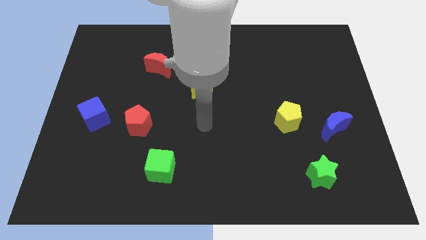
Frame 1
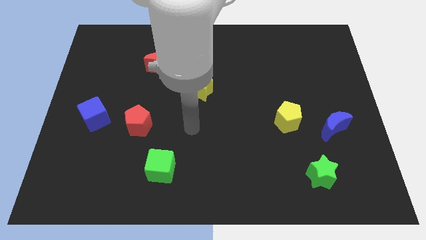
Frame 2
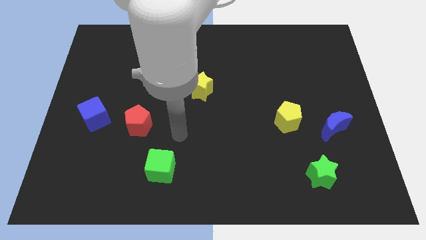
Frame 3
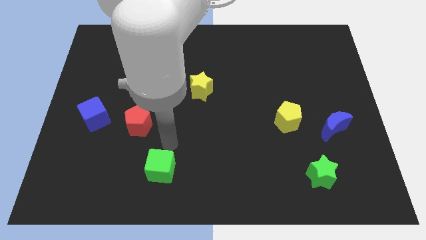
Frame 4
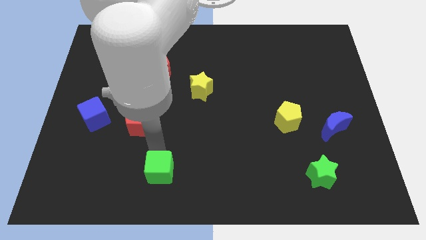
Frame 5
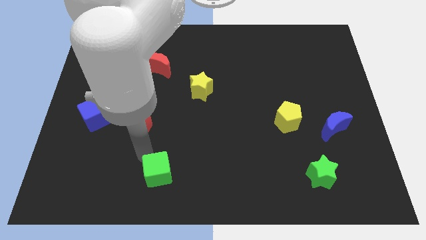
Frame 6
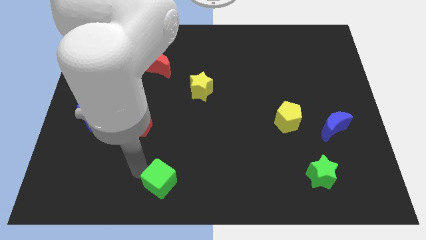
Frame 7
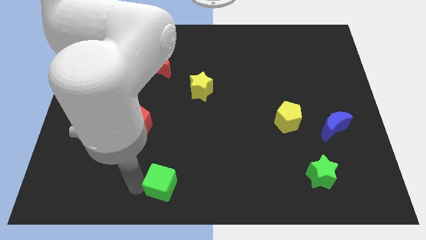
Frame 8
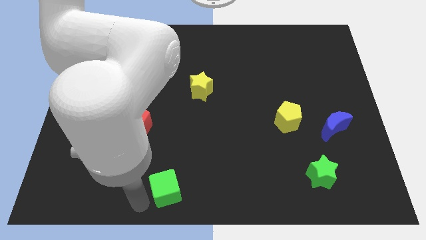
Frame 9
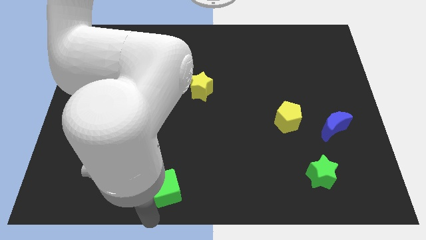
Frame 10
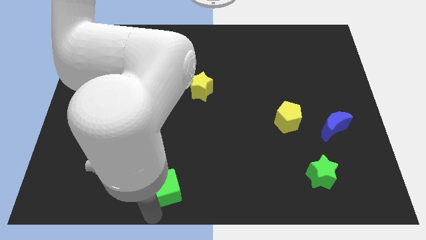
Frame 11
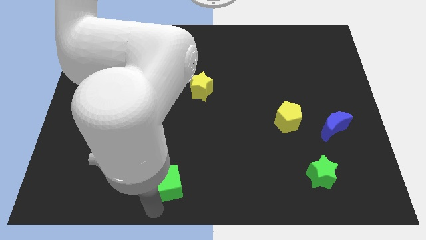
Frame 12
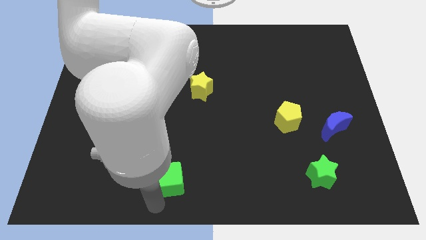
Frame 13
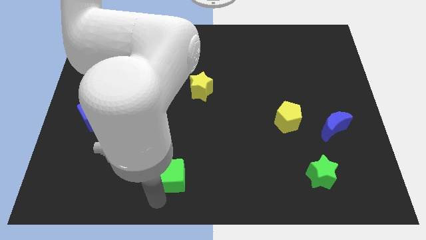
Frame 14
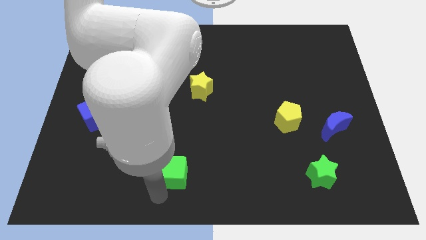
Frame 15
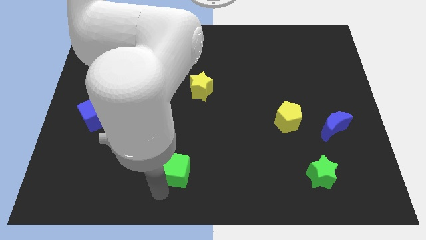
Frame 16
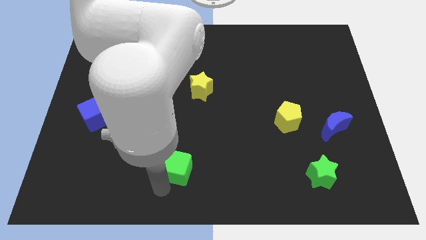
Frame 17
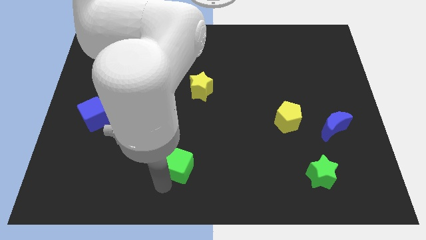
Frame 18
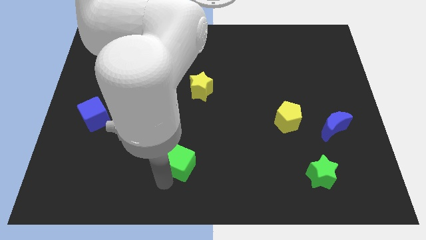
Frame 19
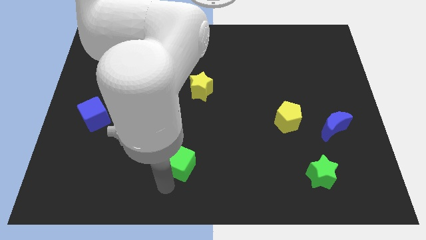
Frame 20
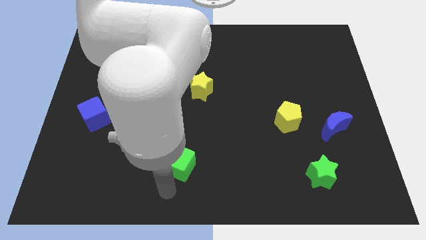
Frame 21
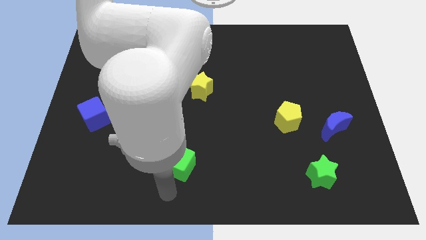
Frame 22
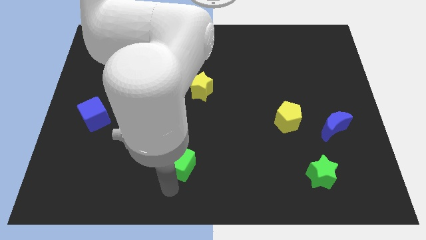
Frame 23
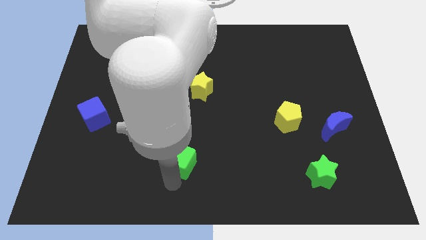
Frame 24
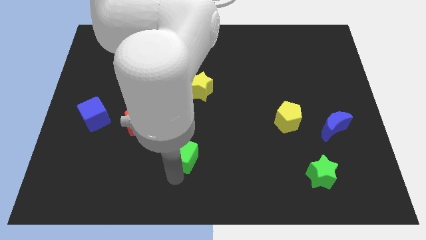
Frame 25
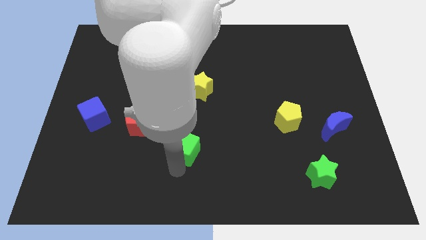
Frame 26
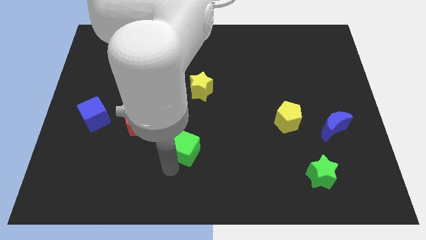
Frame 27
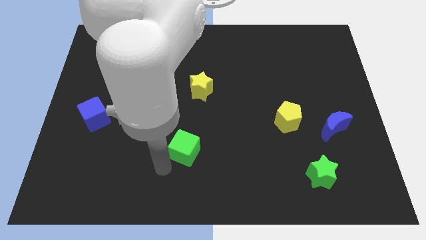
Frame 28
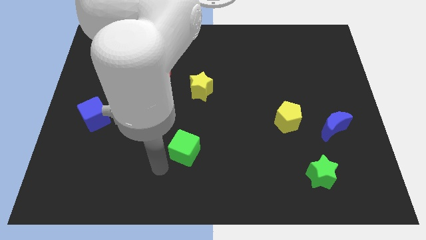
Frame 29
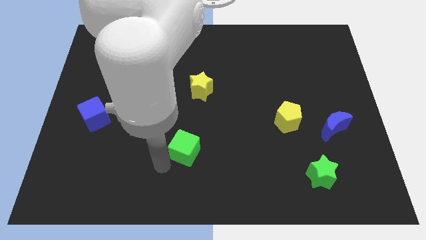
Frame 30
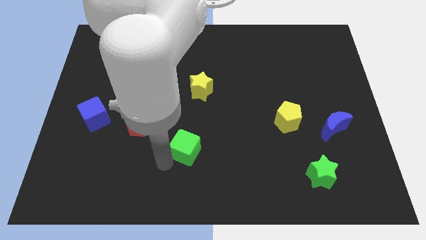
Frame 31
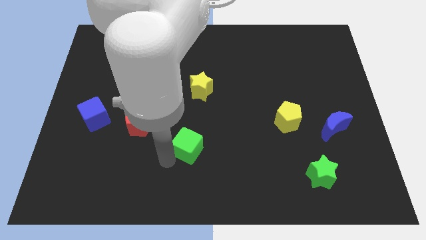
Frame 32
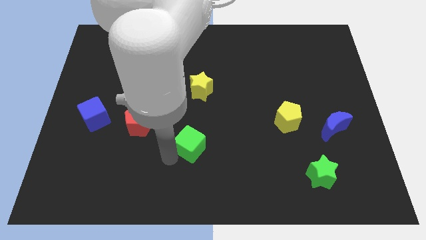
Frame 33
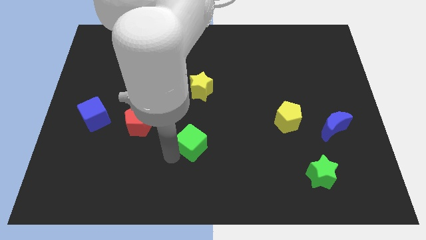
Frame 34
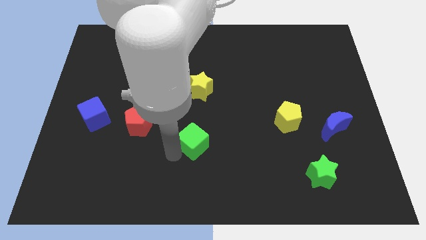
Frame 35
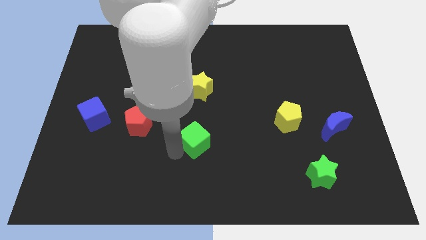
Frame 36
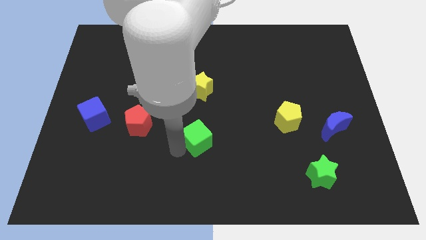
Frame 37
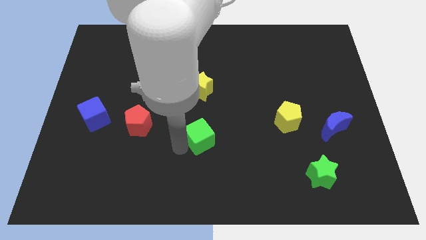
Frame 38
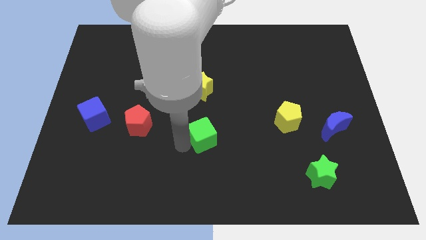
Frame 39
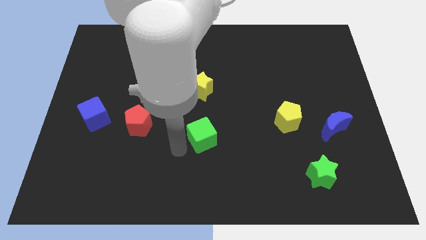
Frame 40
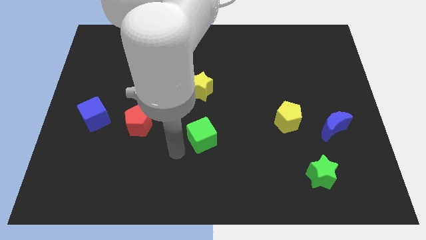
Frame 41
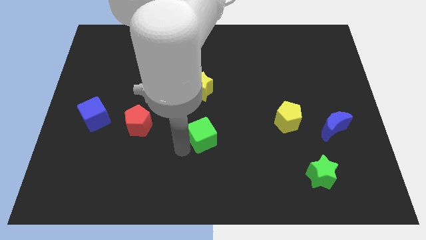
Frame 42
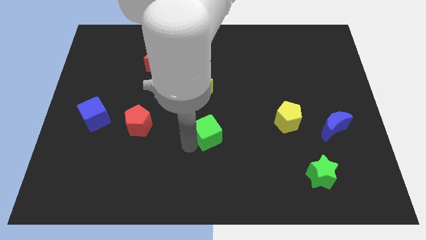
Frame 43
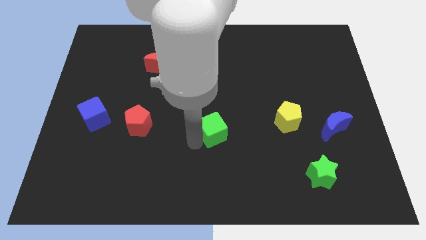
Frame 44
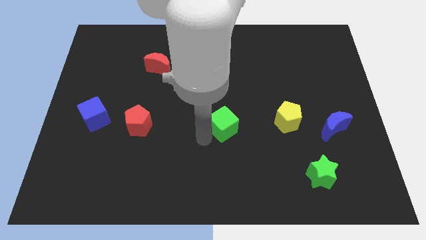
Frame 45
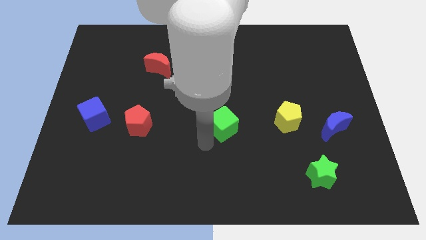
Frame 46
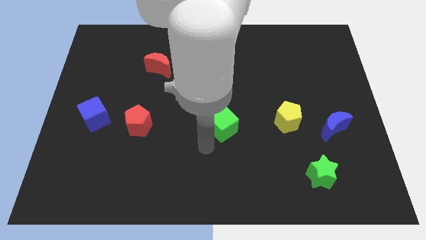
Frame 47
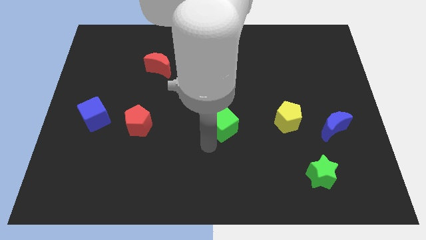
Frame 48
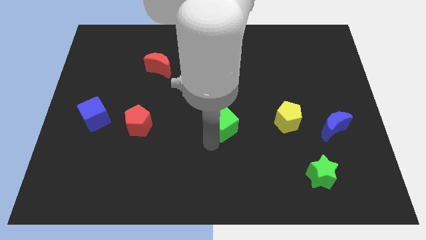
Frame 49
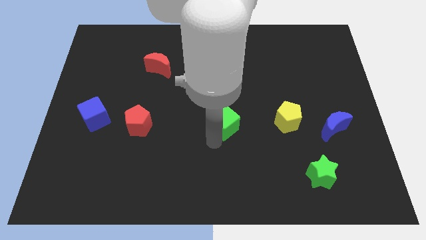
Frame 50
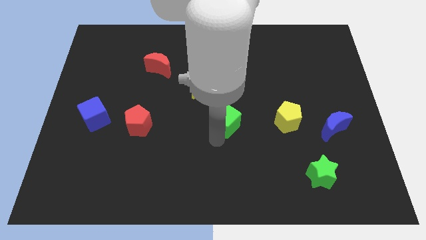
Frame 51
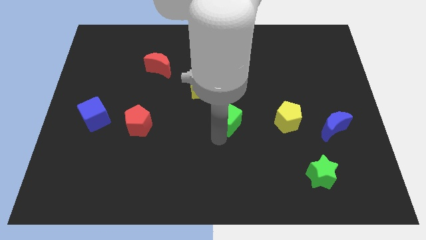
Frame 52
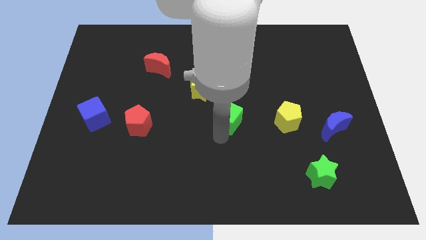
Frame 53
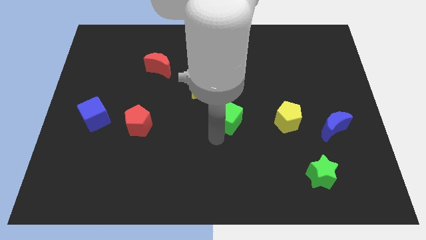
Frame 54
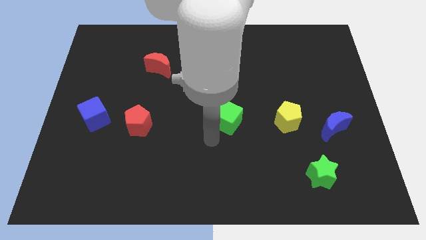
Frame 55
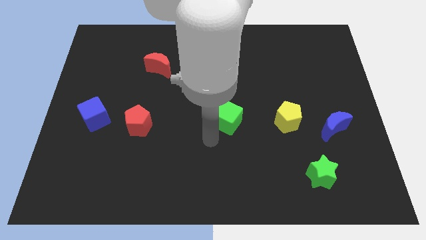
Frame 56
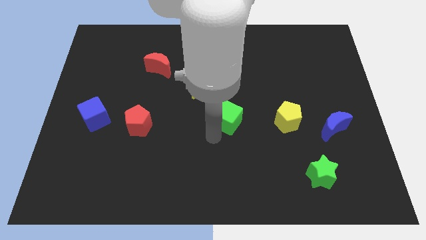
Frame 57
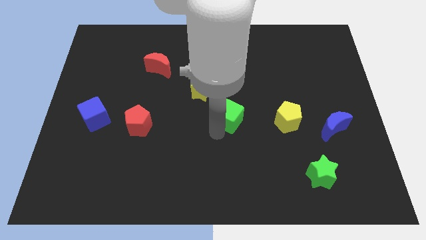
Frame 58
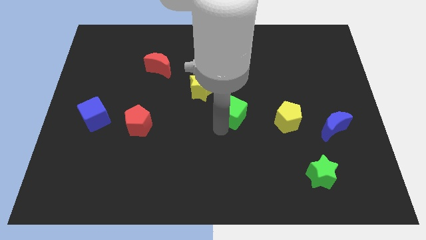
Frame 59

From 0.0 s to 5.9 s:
slide the green cube upwards and to the right diagonally

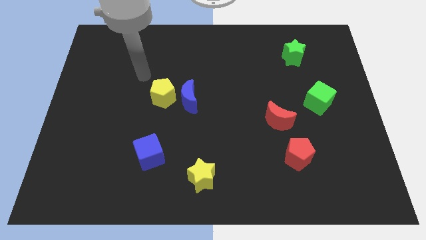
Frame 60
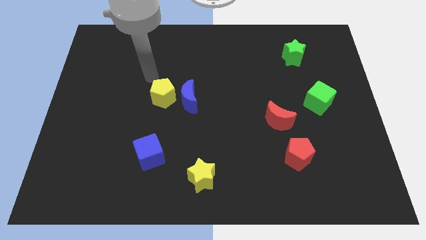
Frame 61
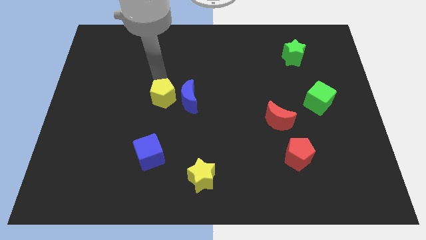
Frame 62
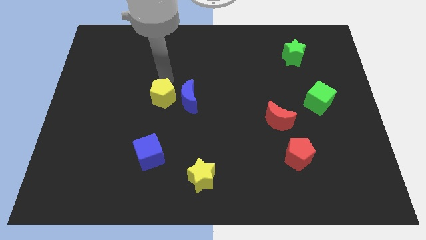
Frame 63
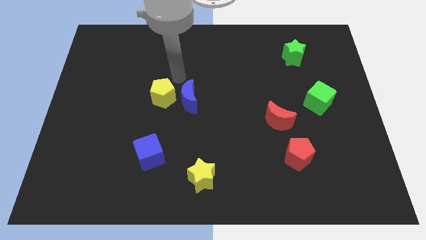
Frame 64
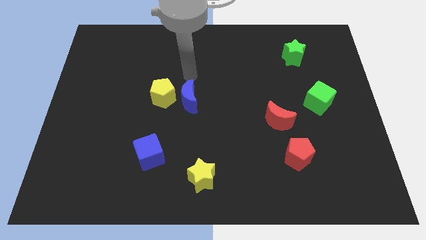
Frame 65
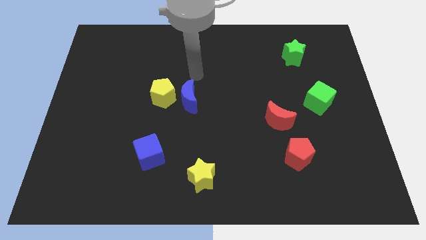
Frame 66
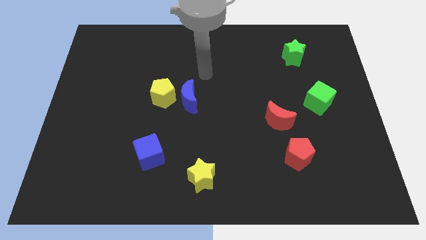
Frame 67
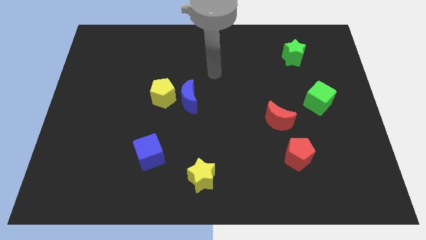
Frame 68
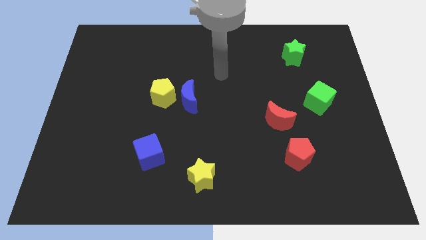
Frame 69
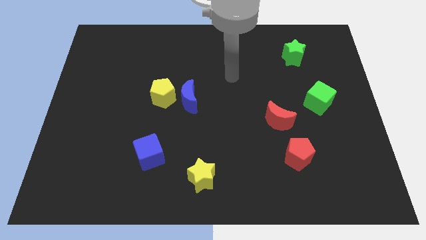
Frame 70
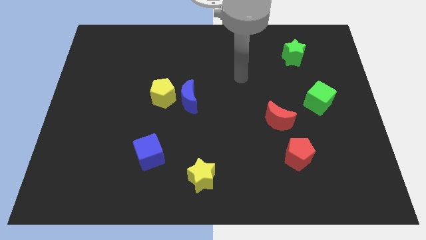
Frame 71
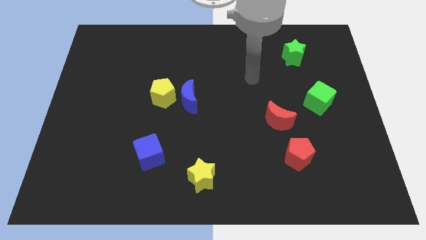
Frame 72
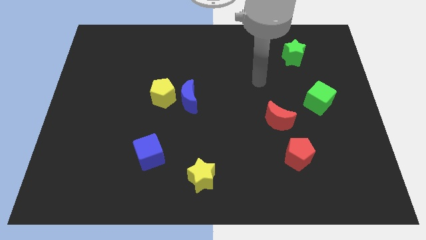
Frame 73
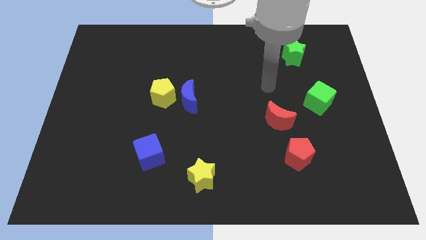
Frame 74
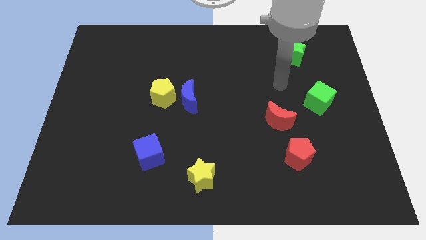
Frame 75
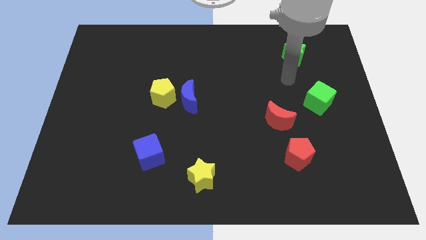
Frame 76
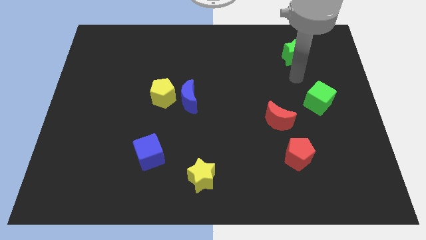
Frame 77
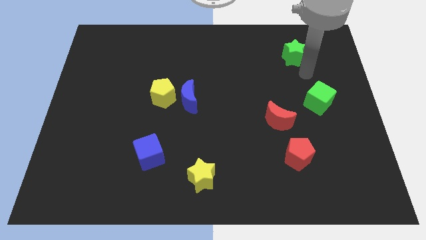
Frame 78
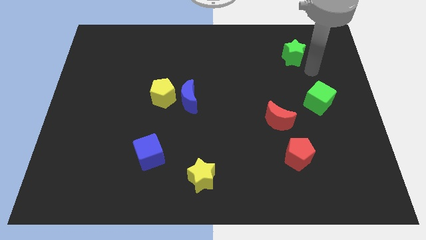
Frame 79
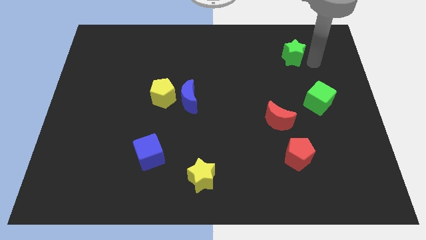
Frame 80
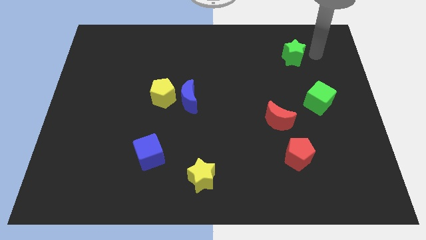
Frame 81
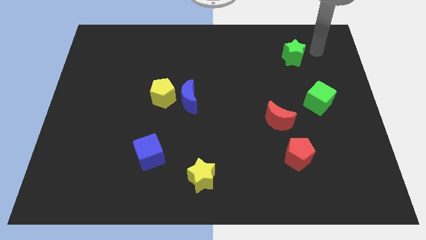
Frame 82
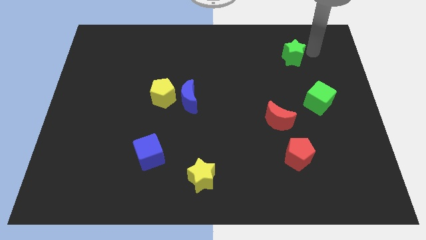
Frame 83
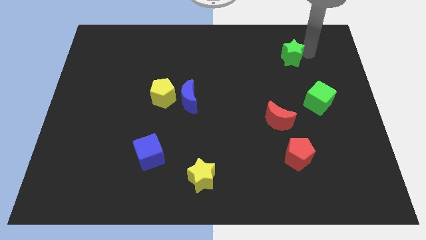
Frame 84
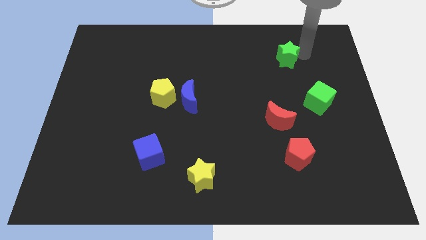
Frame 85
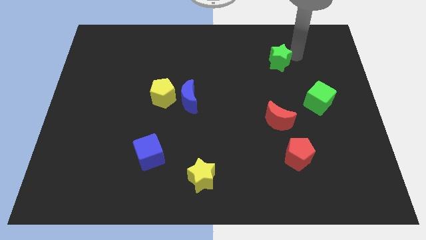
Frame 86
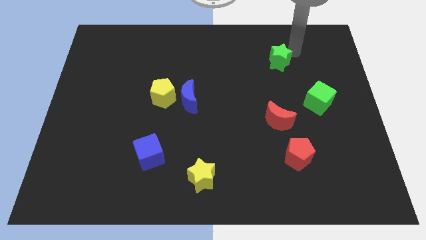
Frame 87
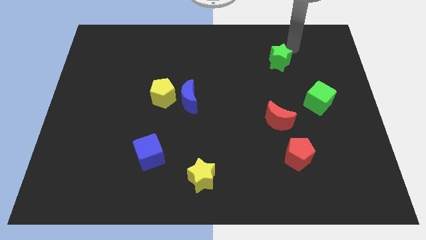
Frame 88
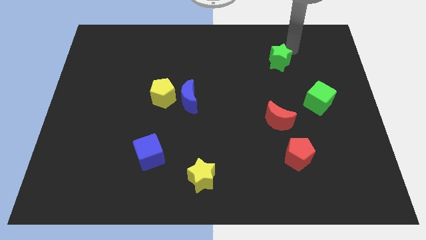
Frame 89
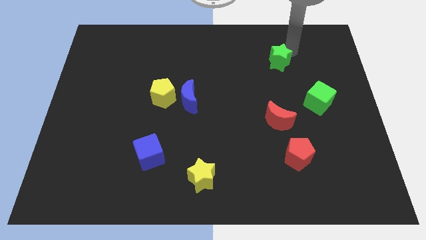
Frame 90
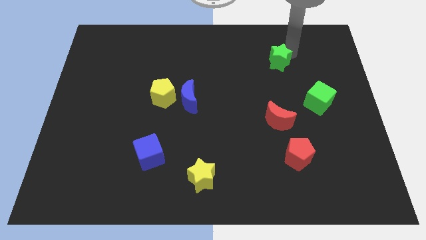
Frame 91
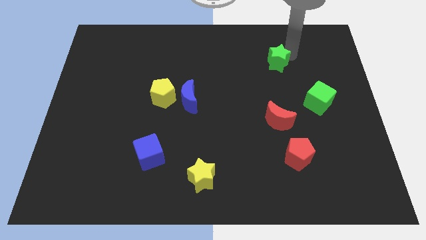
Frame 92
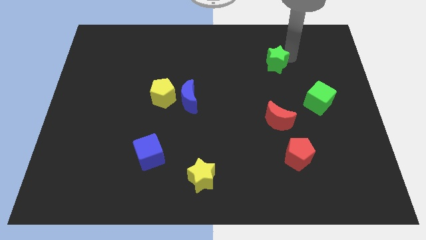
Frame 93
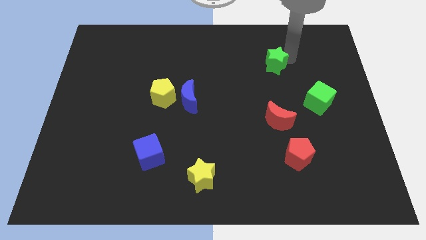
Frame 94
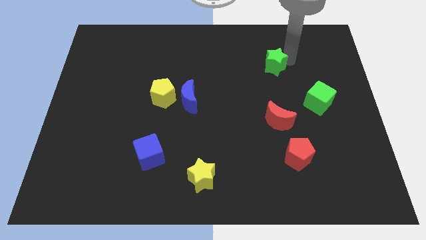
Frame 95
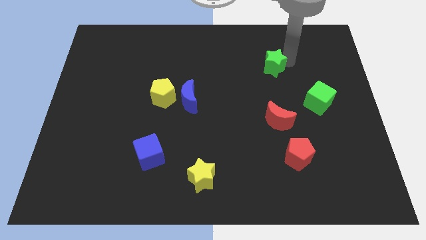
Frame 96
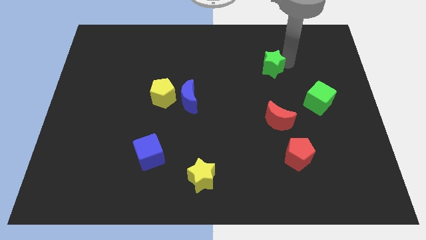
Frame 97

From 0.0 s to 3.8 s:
slide the green star slightly downwards and left diagonally
